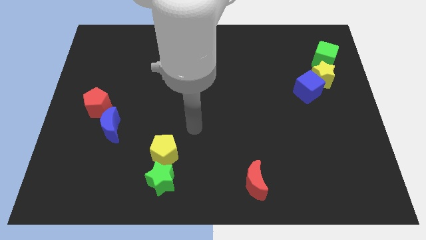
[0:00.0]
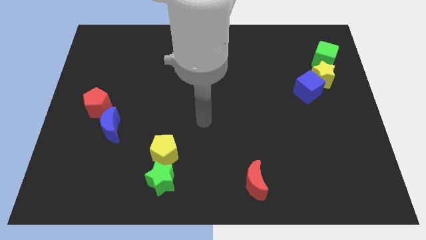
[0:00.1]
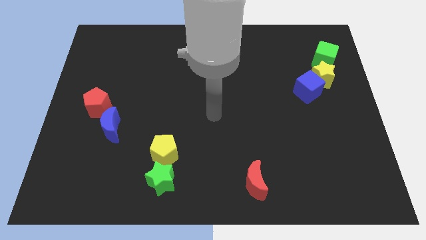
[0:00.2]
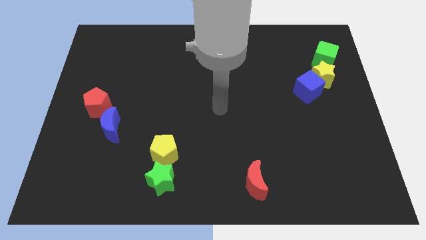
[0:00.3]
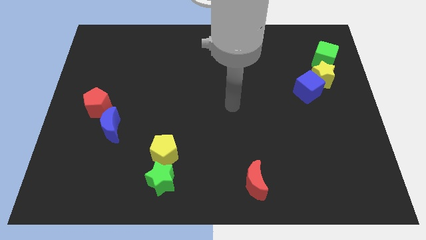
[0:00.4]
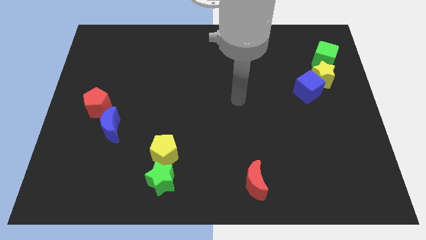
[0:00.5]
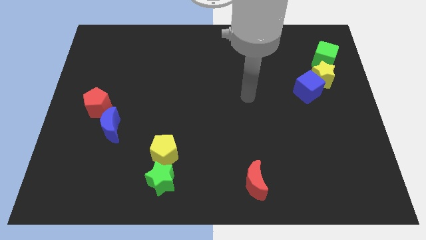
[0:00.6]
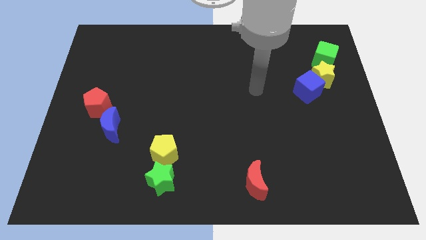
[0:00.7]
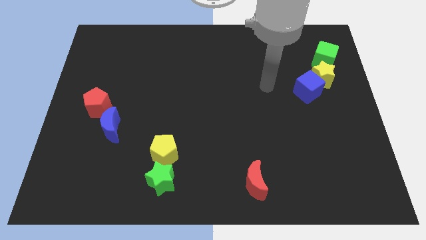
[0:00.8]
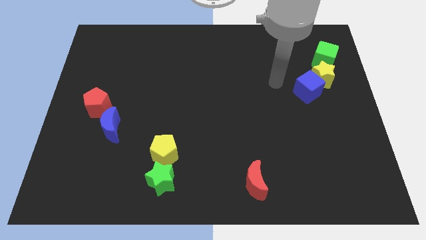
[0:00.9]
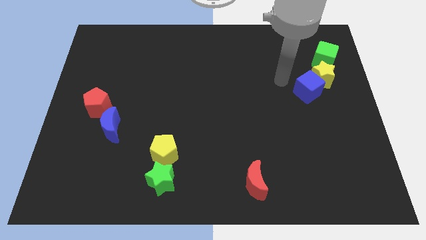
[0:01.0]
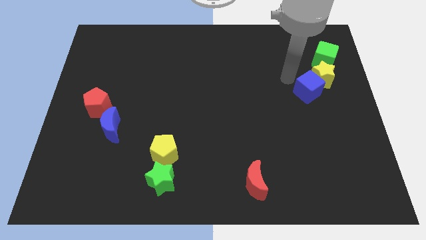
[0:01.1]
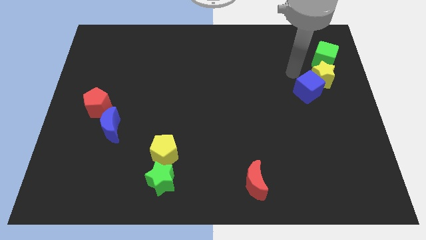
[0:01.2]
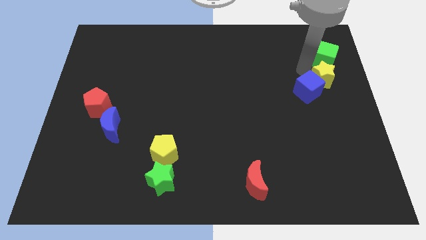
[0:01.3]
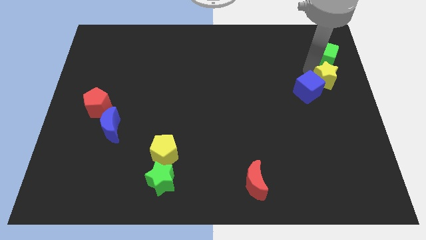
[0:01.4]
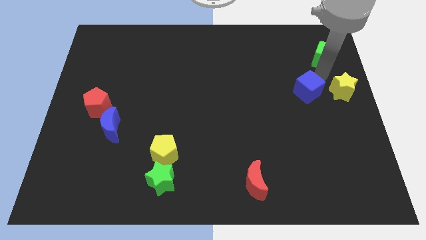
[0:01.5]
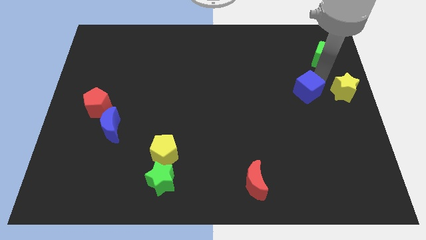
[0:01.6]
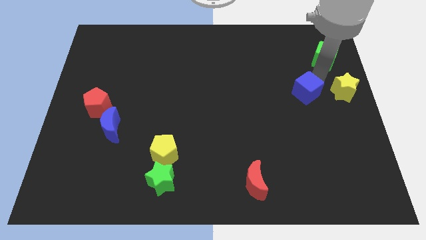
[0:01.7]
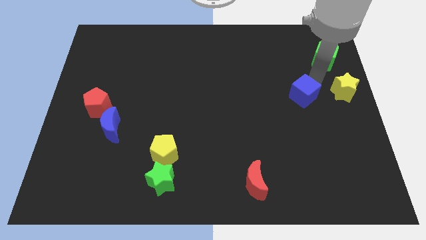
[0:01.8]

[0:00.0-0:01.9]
move the blue cube away from the yellow star

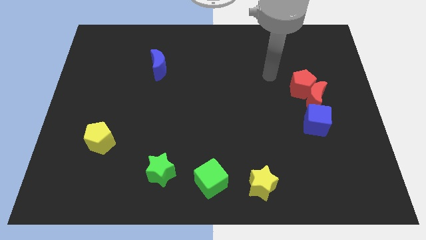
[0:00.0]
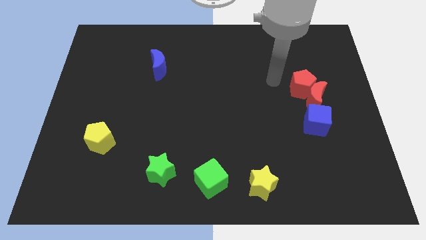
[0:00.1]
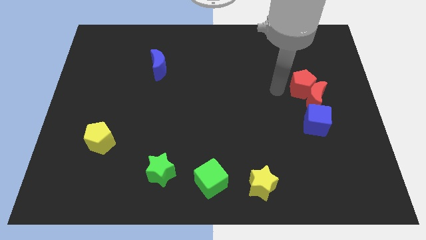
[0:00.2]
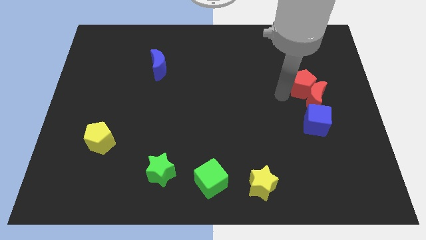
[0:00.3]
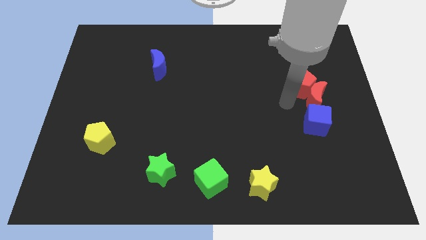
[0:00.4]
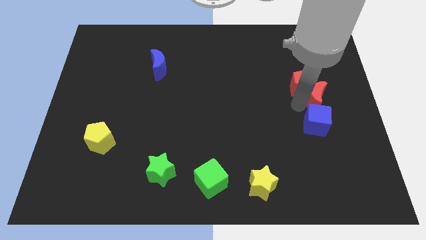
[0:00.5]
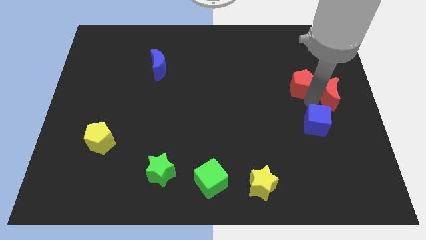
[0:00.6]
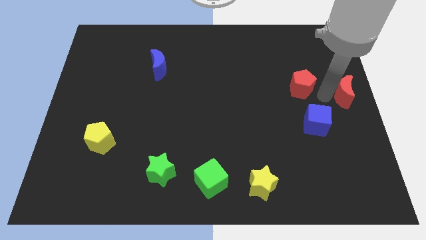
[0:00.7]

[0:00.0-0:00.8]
move the red pentagon away from the red moon

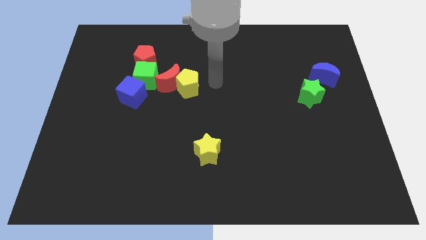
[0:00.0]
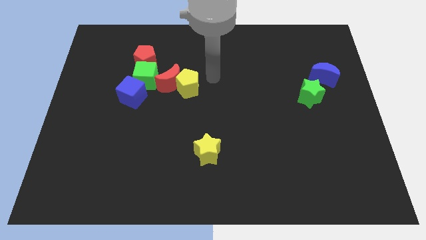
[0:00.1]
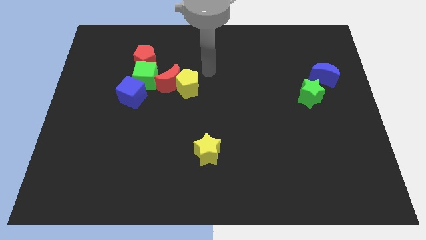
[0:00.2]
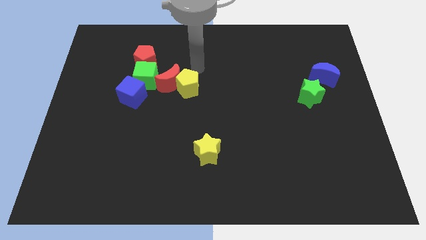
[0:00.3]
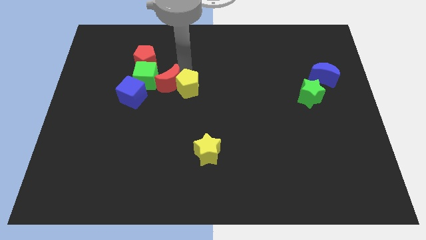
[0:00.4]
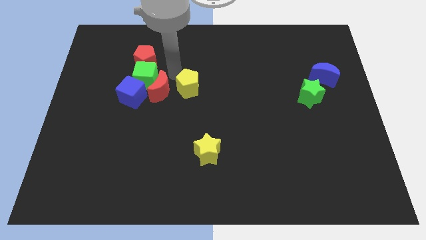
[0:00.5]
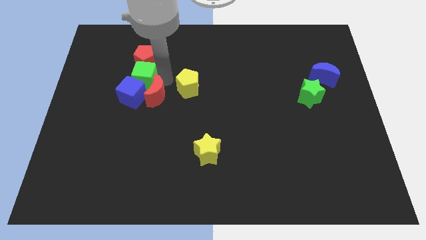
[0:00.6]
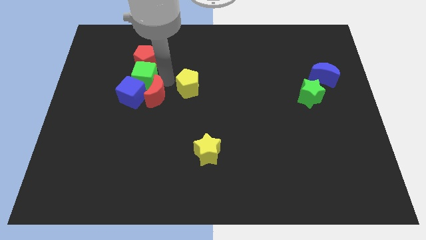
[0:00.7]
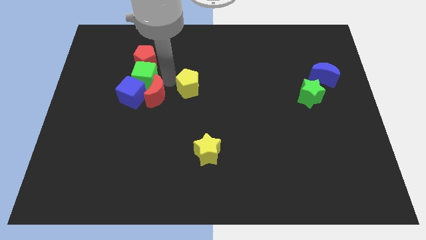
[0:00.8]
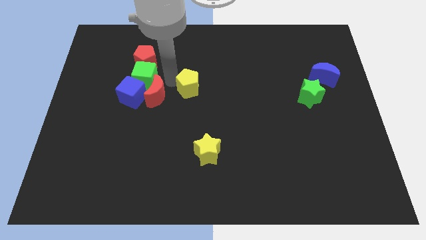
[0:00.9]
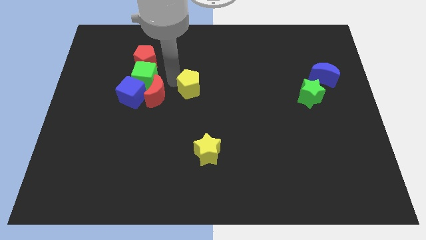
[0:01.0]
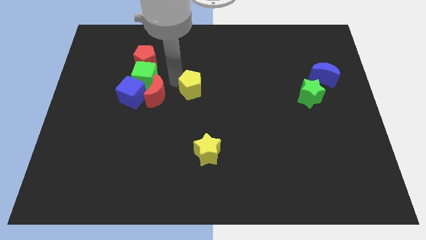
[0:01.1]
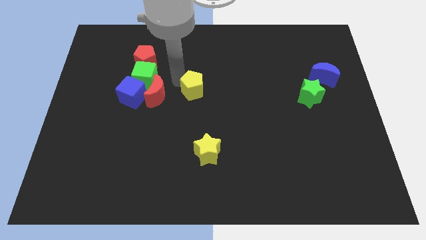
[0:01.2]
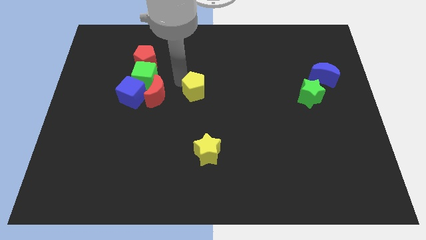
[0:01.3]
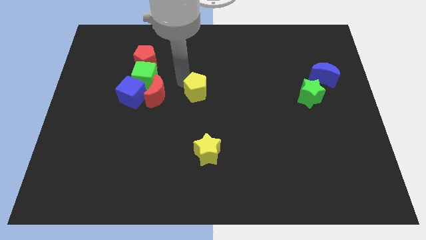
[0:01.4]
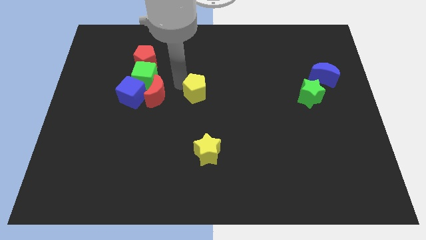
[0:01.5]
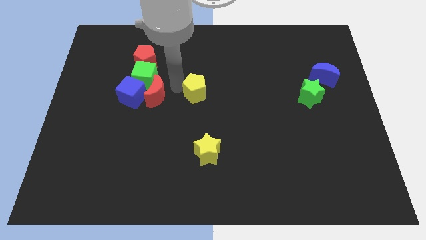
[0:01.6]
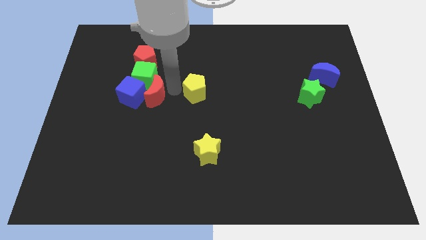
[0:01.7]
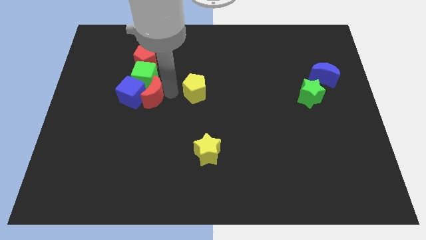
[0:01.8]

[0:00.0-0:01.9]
move the yellow pentagon away from the red moon

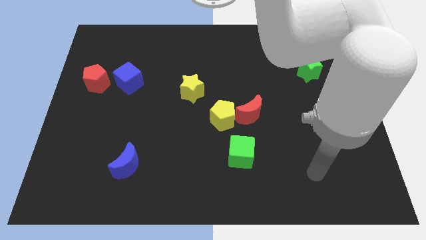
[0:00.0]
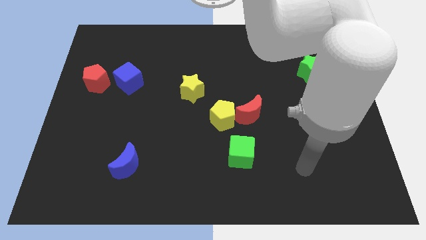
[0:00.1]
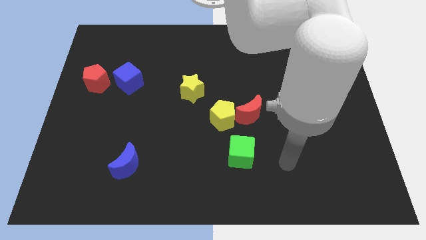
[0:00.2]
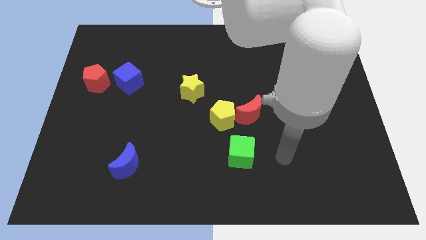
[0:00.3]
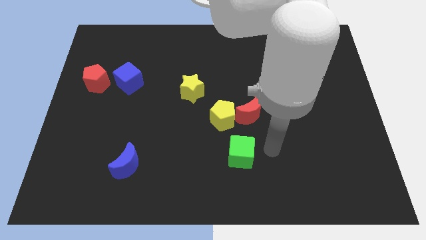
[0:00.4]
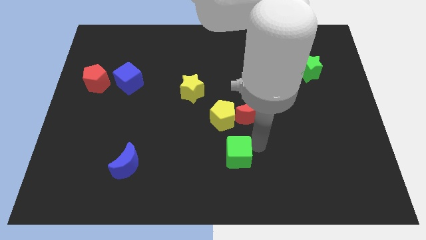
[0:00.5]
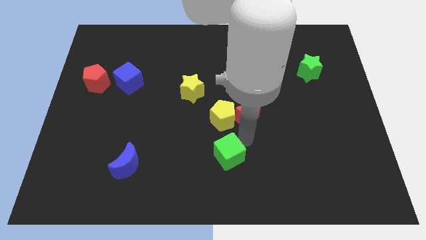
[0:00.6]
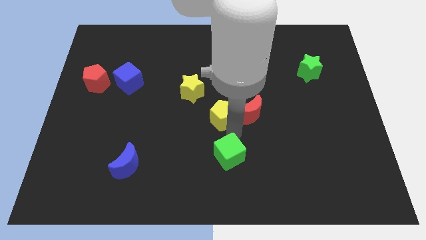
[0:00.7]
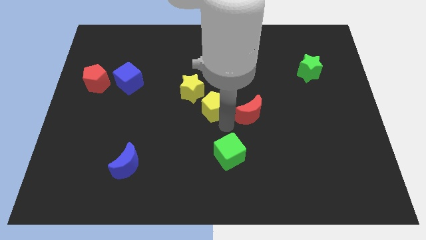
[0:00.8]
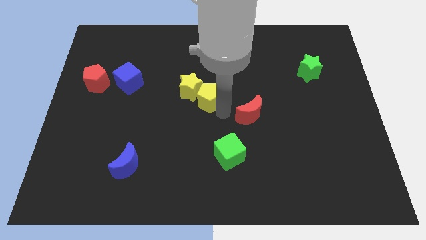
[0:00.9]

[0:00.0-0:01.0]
separate the red moon from the yellow pentagon

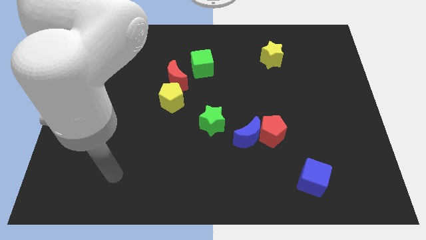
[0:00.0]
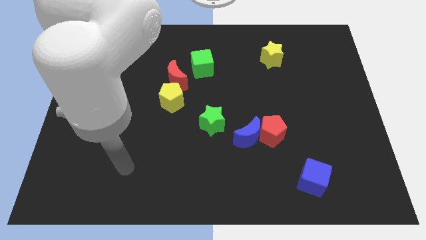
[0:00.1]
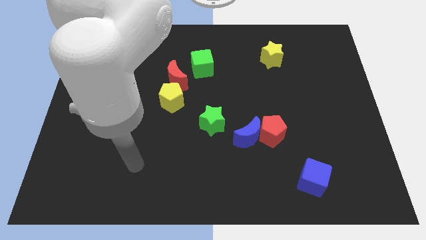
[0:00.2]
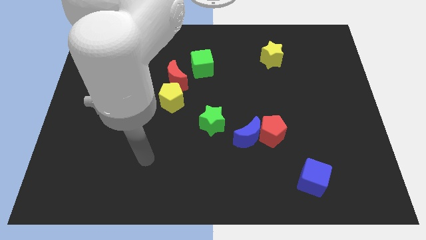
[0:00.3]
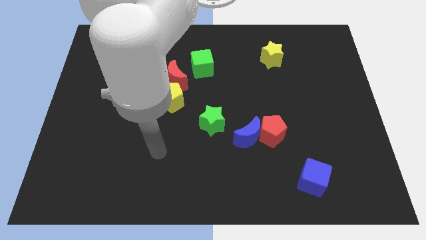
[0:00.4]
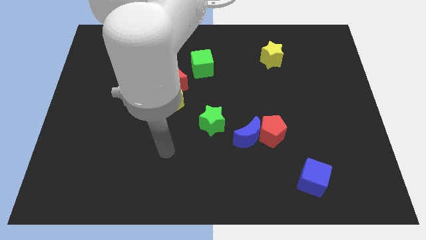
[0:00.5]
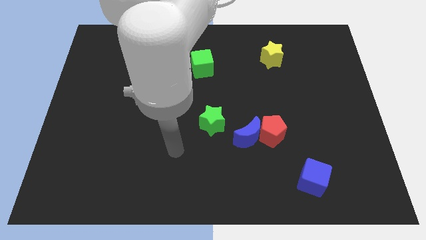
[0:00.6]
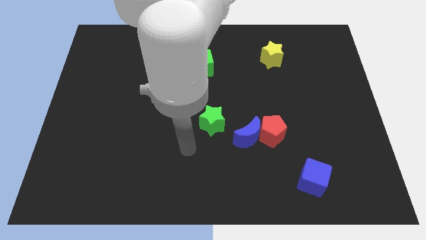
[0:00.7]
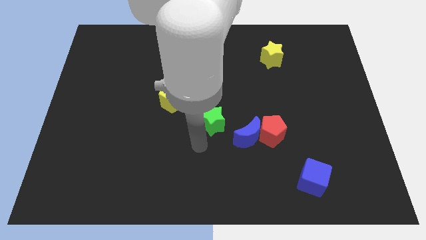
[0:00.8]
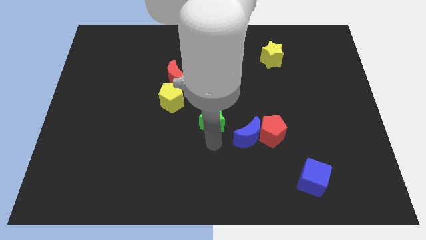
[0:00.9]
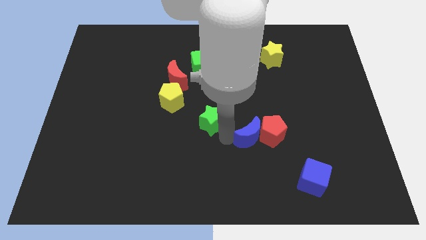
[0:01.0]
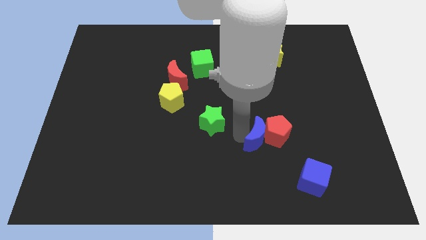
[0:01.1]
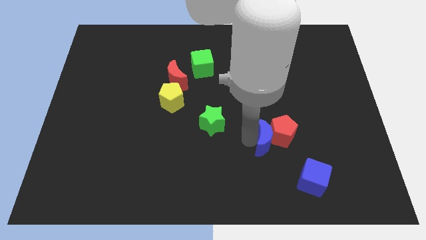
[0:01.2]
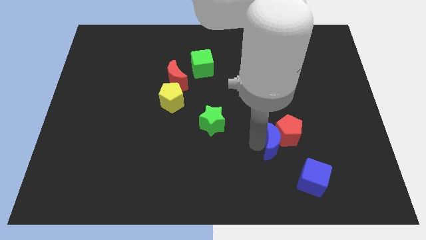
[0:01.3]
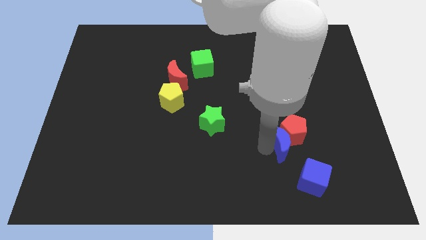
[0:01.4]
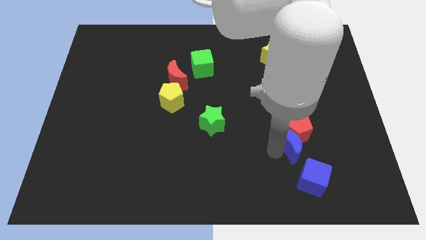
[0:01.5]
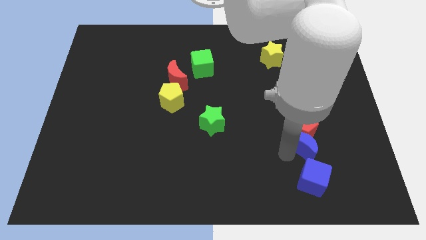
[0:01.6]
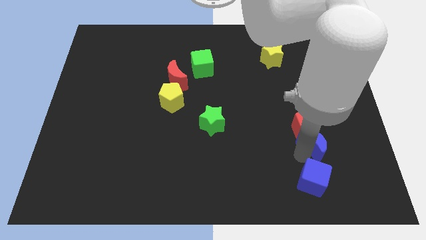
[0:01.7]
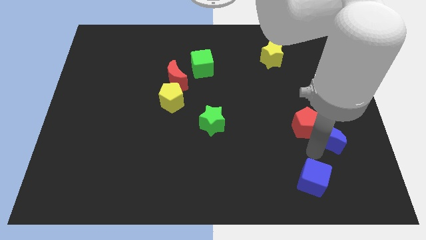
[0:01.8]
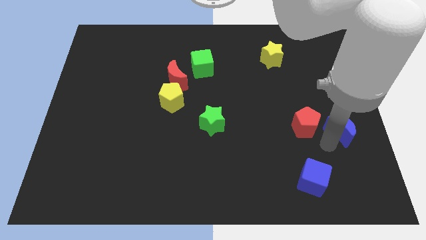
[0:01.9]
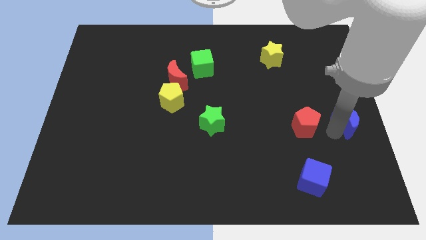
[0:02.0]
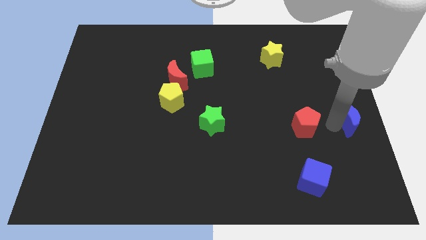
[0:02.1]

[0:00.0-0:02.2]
pull the red pentagon apart from the blue moon

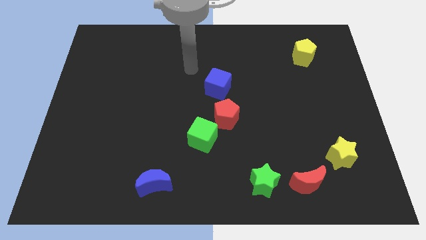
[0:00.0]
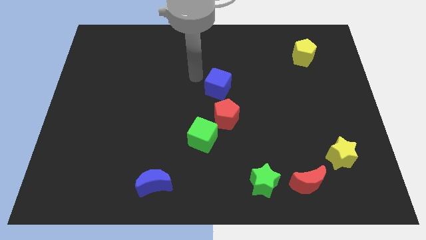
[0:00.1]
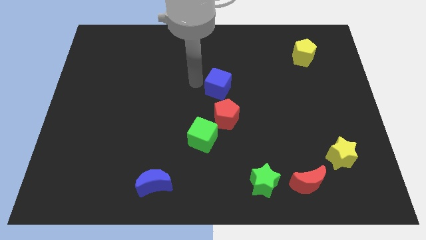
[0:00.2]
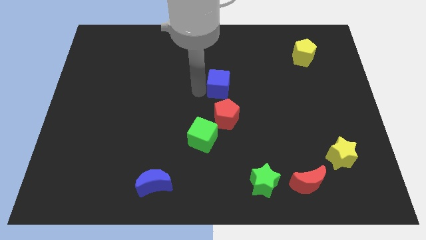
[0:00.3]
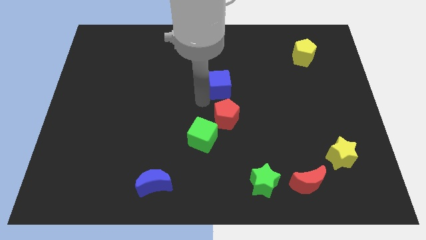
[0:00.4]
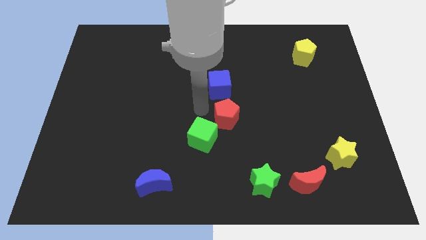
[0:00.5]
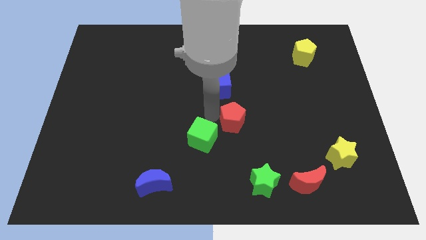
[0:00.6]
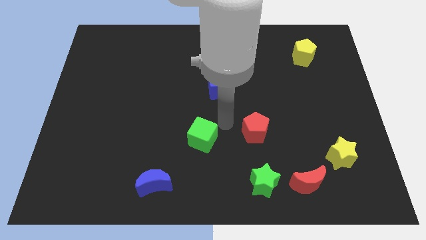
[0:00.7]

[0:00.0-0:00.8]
move the green cube away from the red pentagon

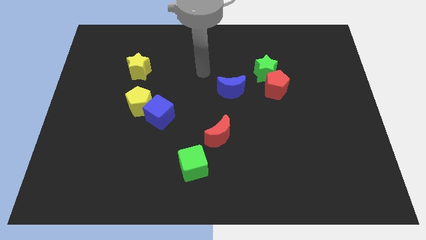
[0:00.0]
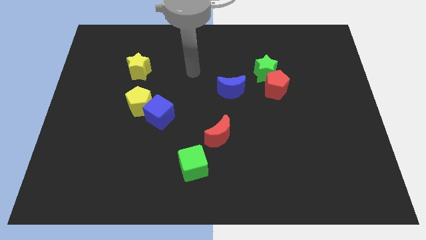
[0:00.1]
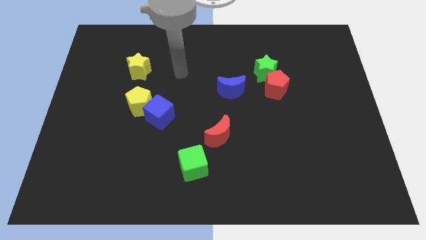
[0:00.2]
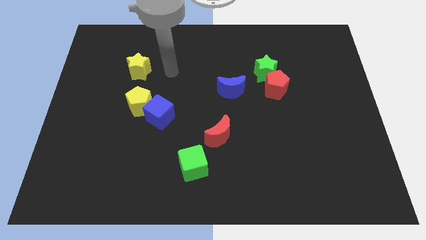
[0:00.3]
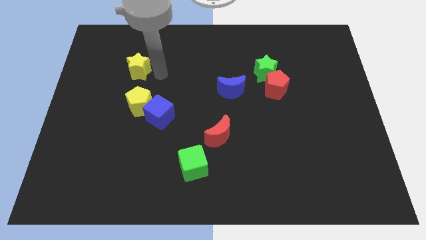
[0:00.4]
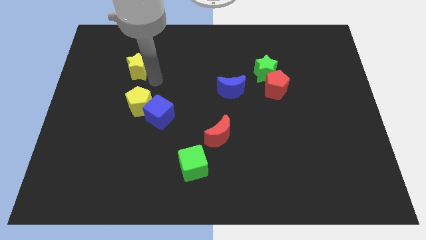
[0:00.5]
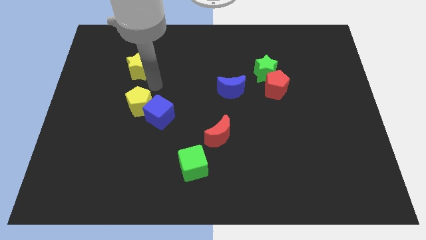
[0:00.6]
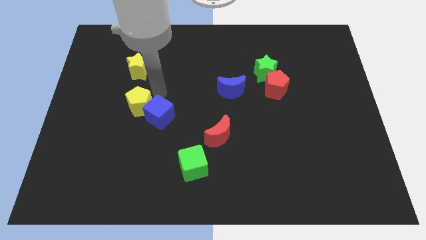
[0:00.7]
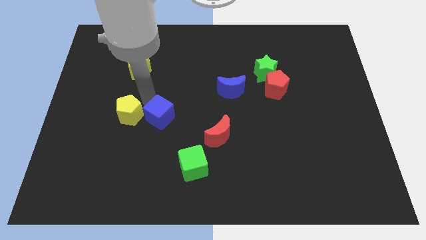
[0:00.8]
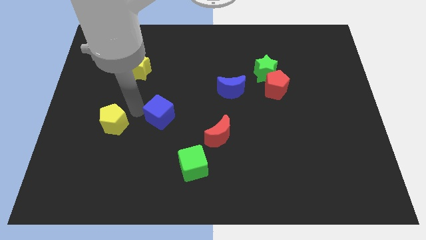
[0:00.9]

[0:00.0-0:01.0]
move the blue cube away from the yellow pentagon
